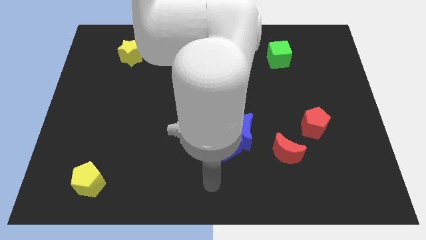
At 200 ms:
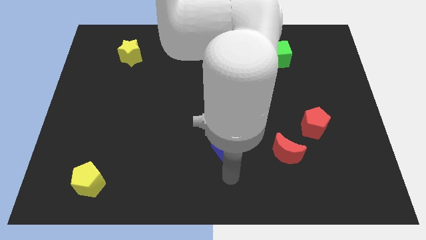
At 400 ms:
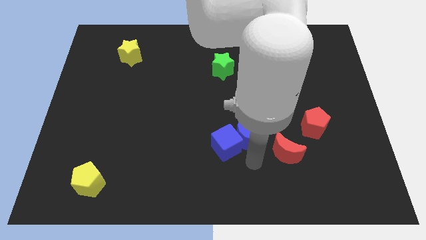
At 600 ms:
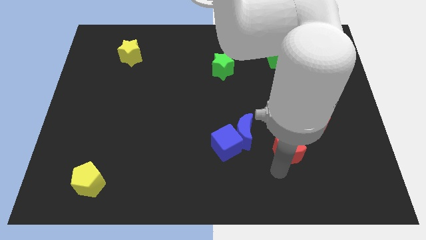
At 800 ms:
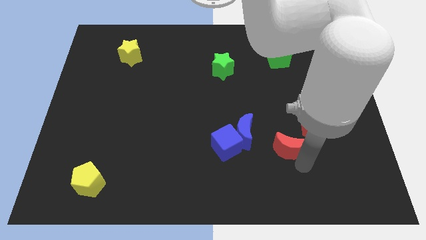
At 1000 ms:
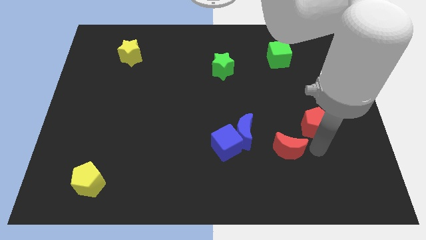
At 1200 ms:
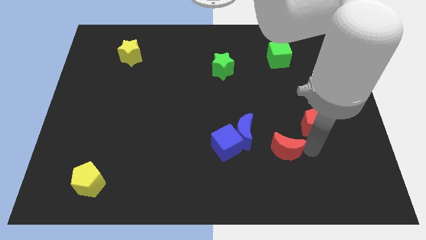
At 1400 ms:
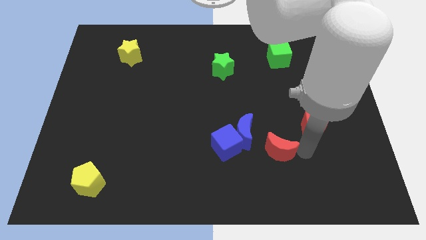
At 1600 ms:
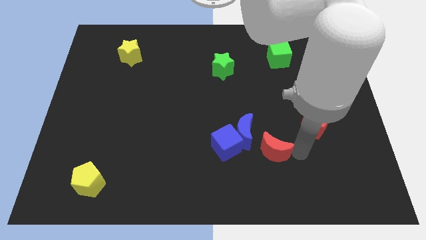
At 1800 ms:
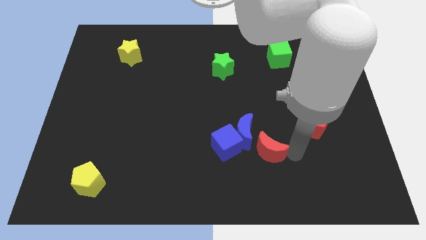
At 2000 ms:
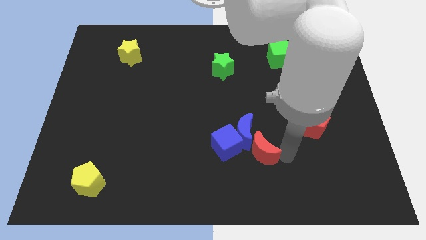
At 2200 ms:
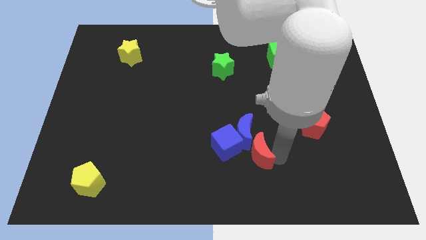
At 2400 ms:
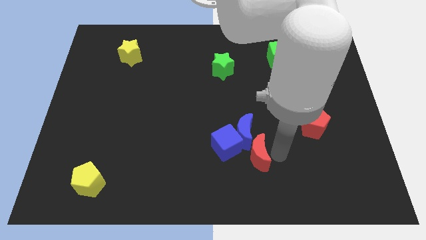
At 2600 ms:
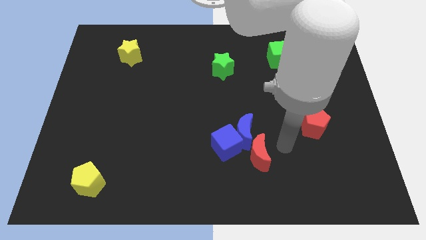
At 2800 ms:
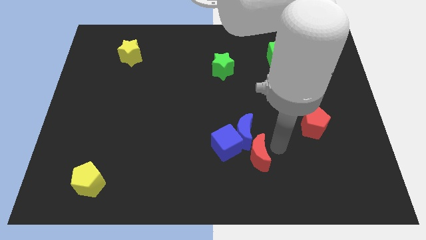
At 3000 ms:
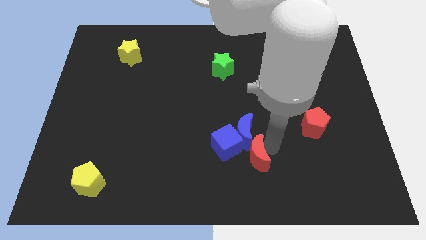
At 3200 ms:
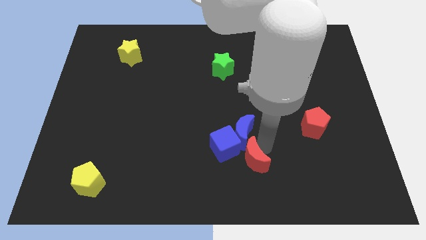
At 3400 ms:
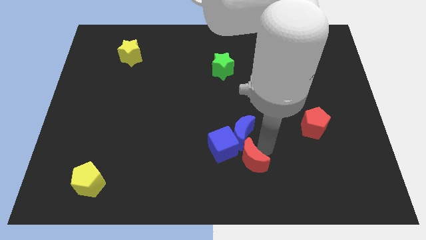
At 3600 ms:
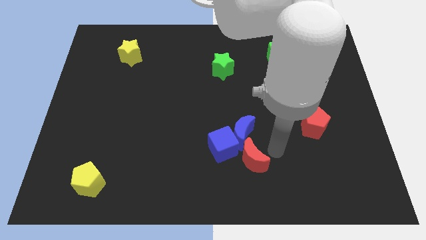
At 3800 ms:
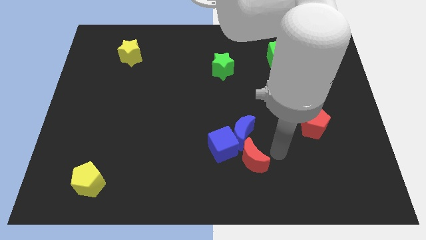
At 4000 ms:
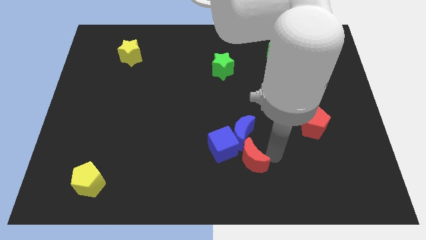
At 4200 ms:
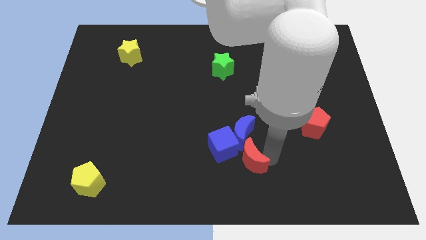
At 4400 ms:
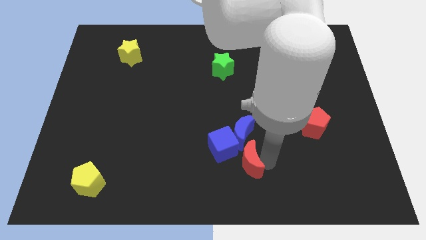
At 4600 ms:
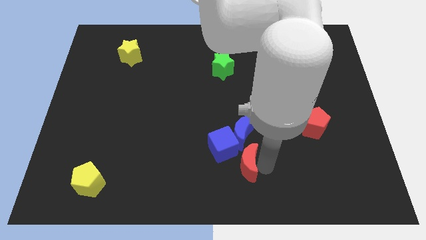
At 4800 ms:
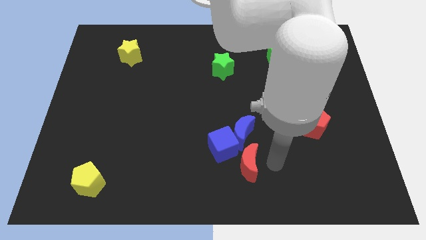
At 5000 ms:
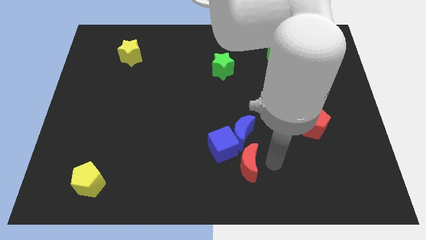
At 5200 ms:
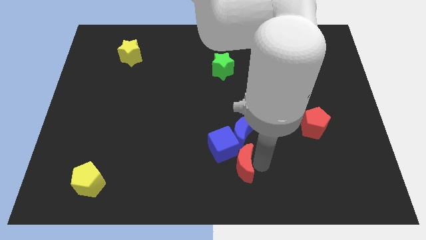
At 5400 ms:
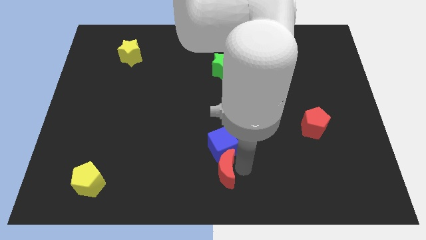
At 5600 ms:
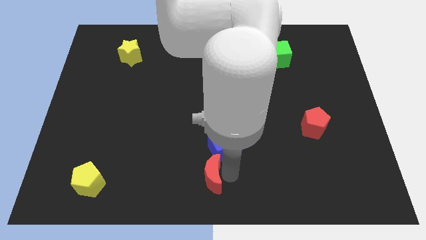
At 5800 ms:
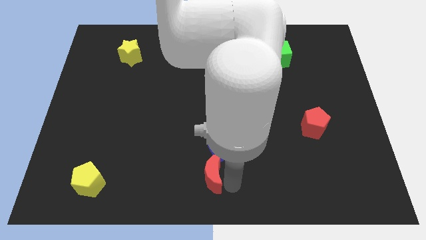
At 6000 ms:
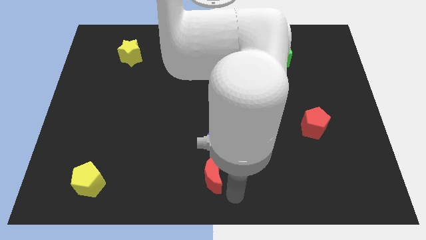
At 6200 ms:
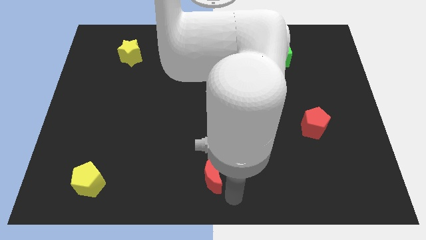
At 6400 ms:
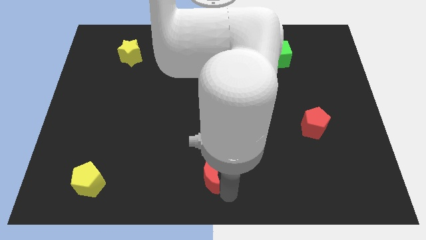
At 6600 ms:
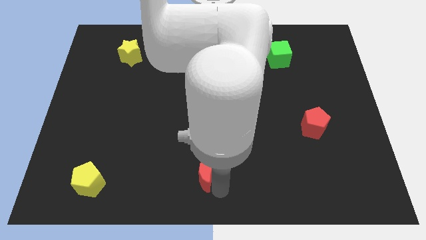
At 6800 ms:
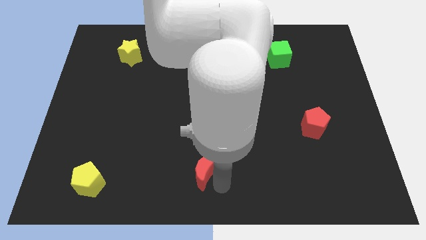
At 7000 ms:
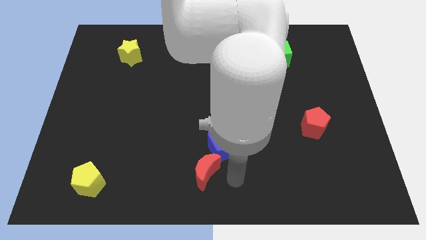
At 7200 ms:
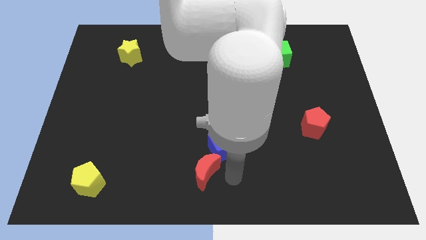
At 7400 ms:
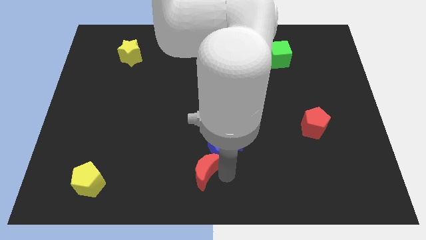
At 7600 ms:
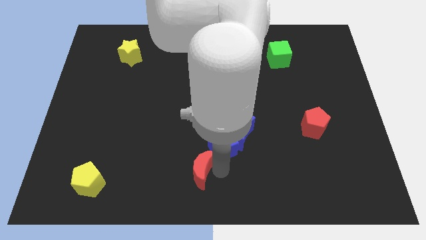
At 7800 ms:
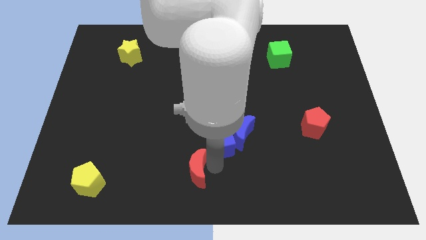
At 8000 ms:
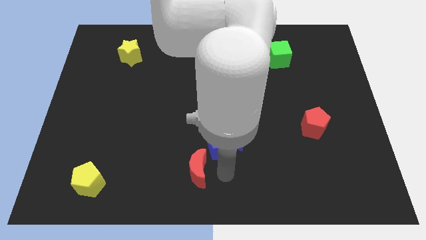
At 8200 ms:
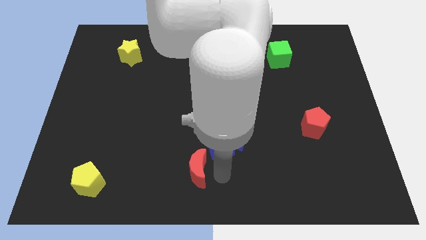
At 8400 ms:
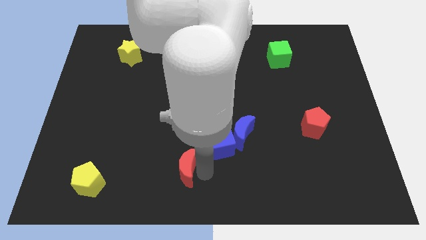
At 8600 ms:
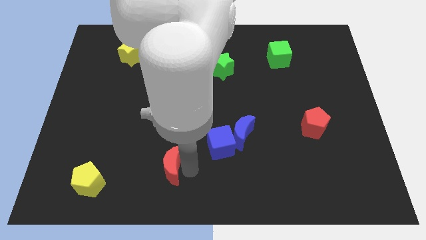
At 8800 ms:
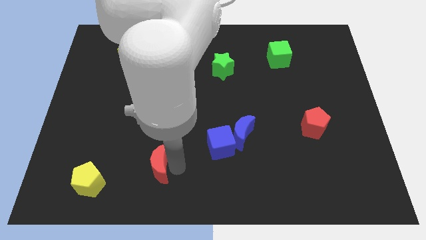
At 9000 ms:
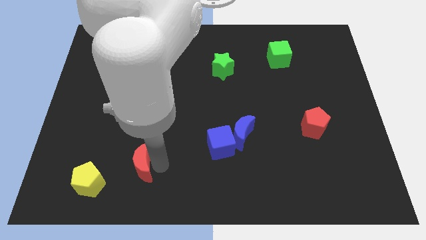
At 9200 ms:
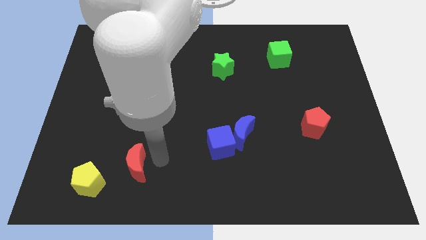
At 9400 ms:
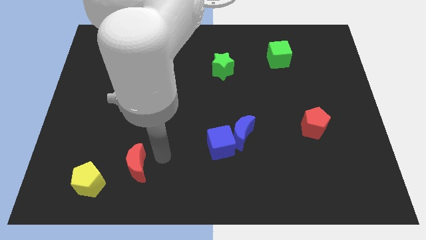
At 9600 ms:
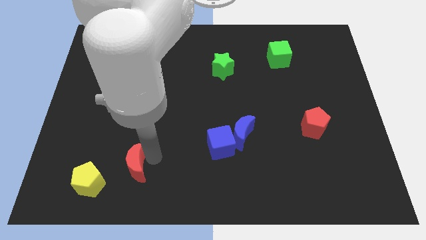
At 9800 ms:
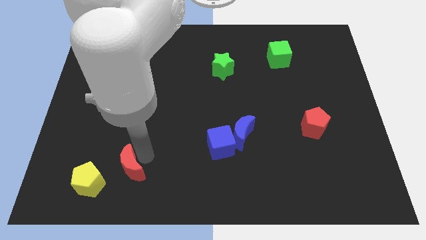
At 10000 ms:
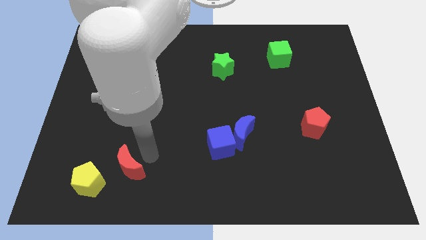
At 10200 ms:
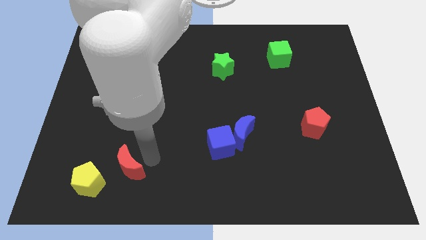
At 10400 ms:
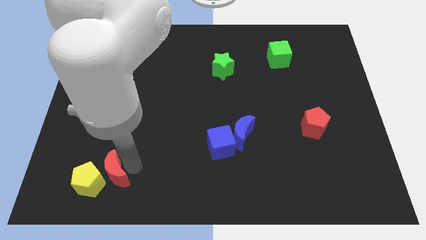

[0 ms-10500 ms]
slide the red moon next to the yellow pentagon

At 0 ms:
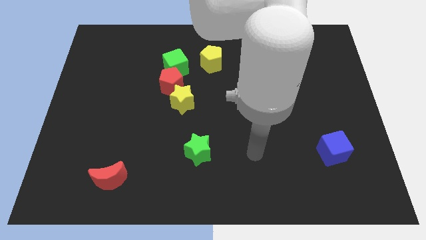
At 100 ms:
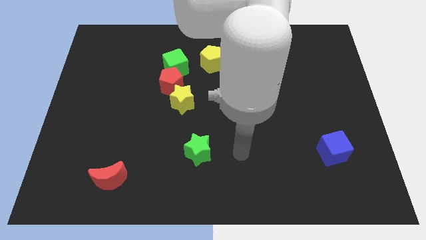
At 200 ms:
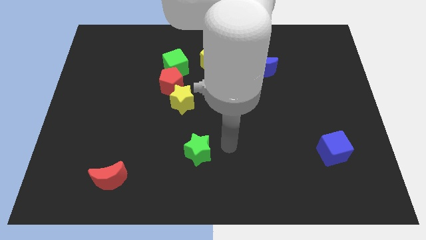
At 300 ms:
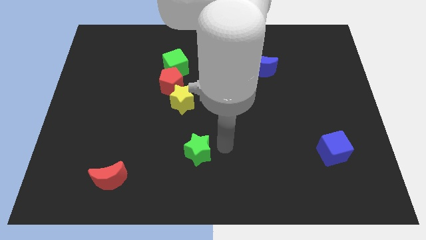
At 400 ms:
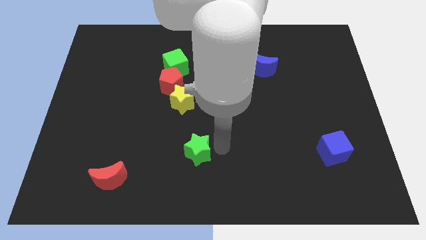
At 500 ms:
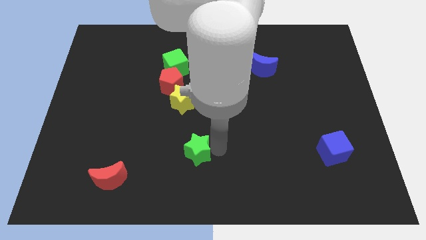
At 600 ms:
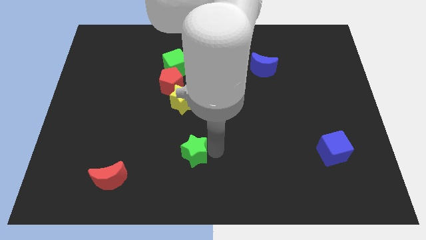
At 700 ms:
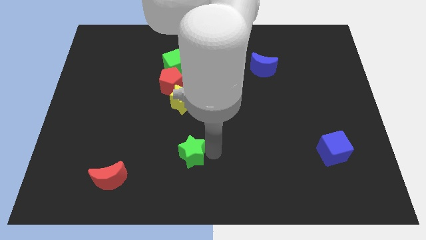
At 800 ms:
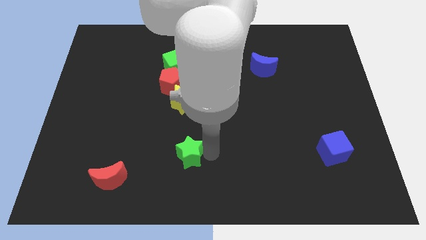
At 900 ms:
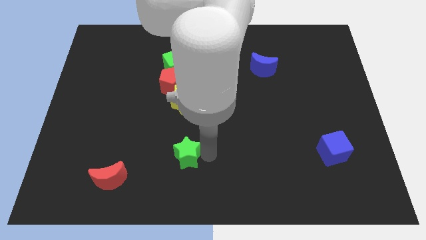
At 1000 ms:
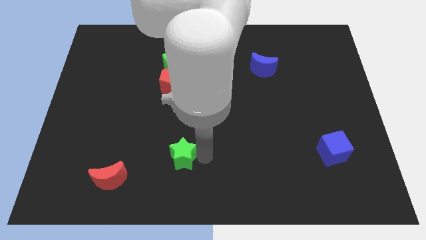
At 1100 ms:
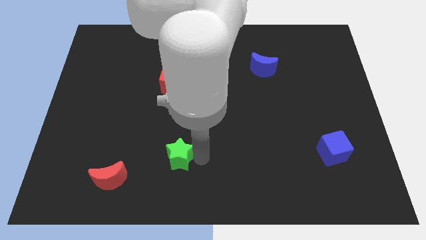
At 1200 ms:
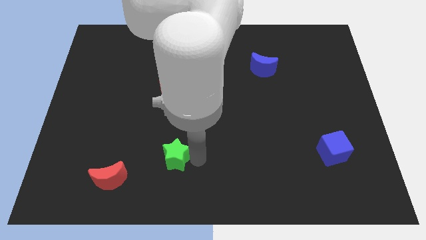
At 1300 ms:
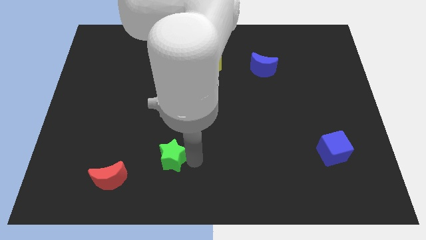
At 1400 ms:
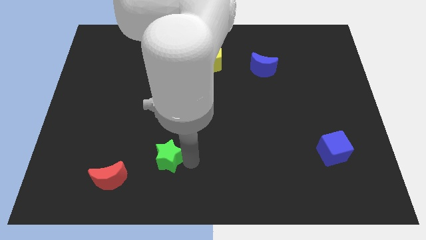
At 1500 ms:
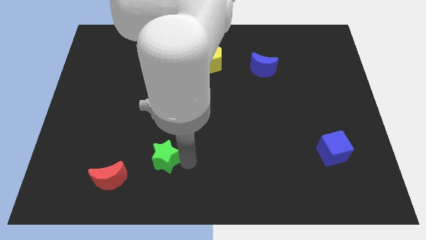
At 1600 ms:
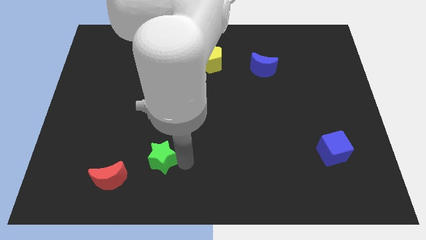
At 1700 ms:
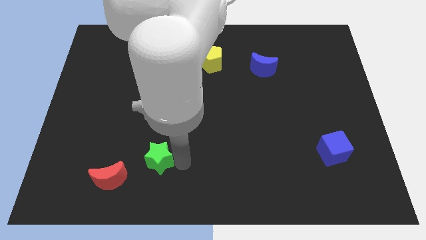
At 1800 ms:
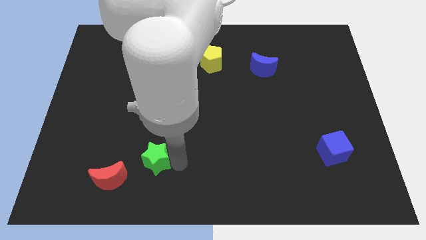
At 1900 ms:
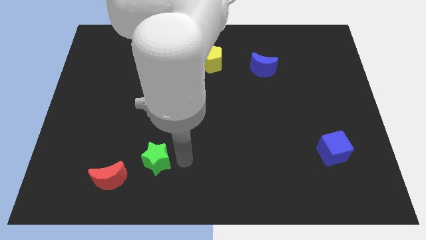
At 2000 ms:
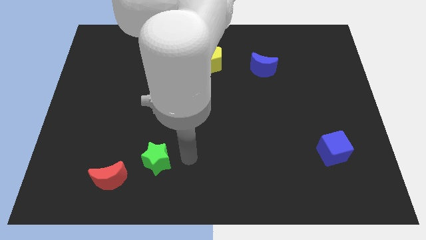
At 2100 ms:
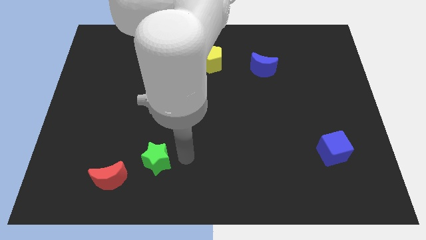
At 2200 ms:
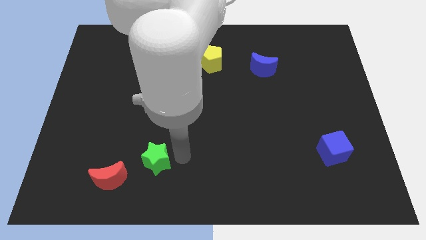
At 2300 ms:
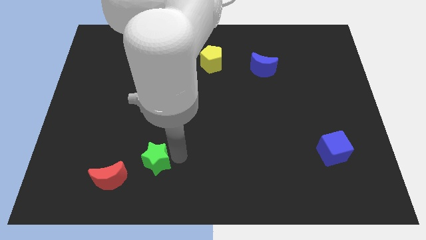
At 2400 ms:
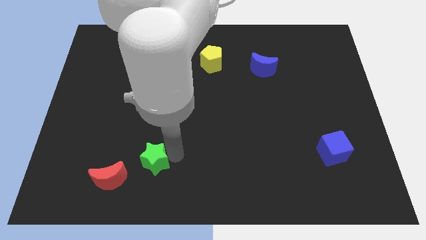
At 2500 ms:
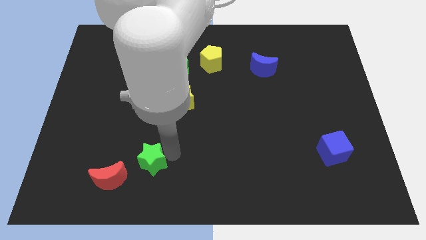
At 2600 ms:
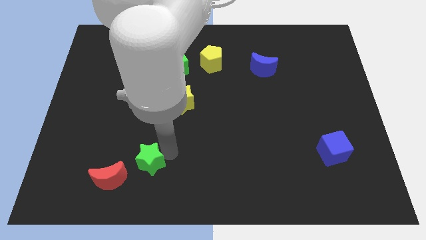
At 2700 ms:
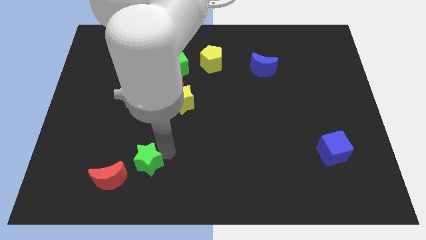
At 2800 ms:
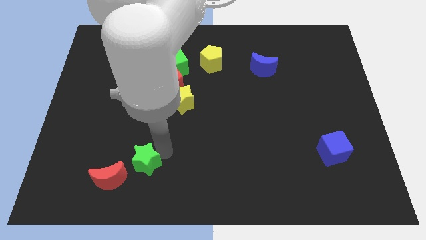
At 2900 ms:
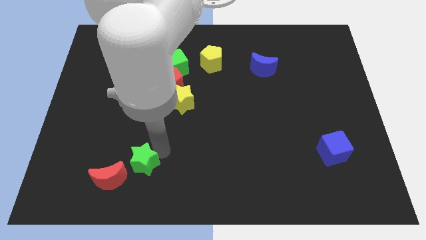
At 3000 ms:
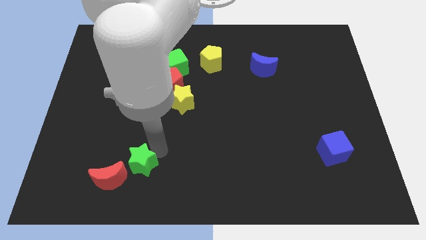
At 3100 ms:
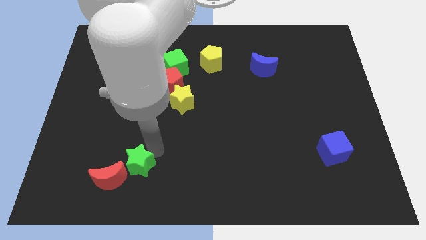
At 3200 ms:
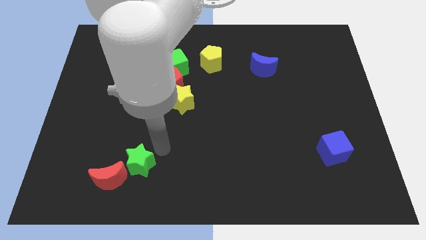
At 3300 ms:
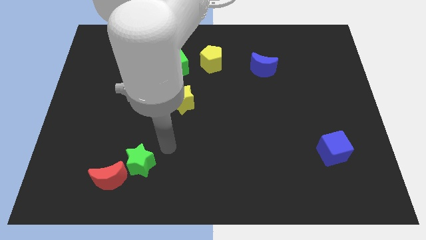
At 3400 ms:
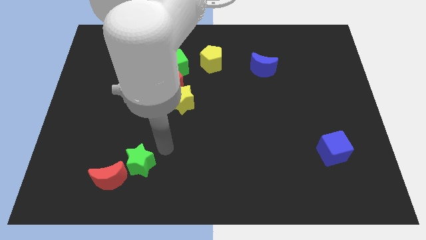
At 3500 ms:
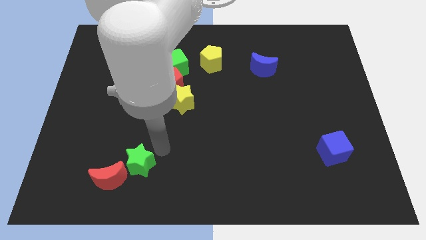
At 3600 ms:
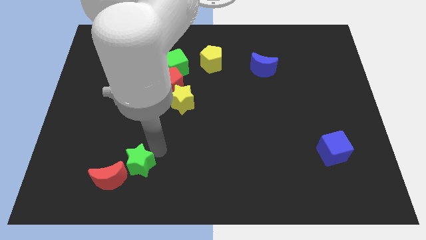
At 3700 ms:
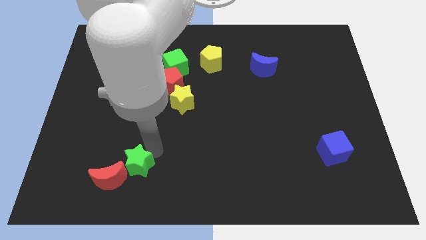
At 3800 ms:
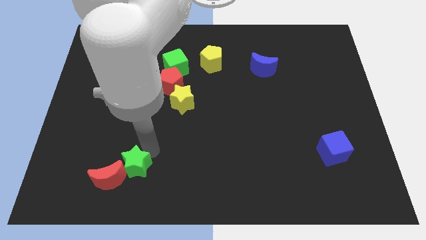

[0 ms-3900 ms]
put the green star towards the red moon
